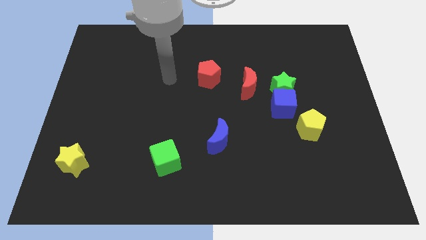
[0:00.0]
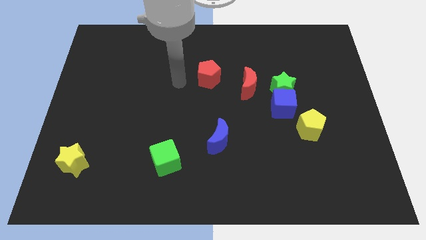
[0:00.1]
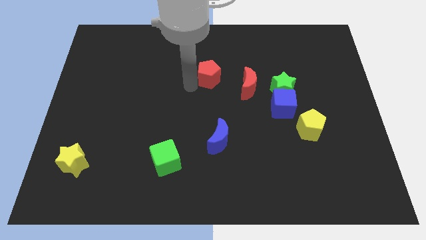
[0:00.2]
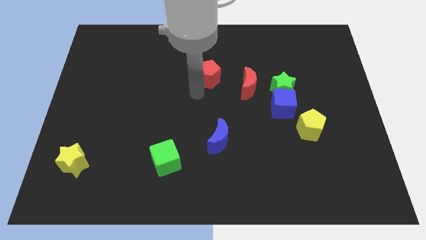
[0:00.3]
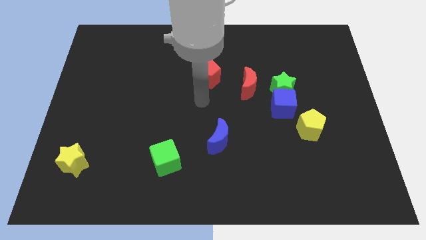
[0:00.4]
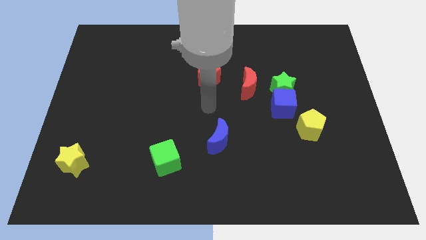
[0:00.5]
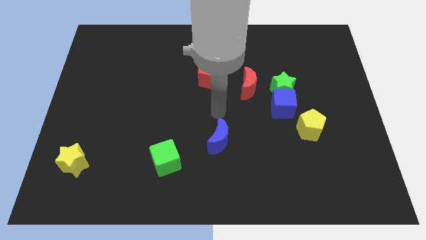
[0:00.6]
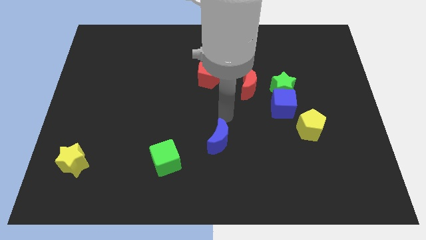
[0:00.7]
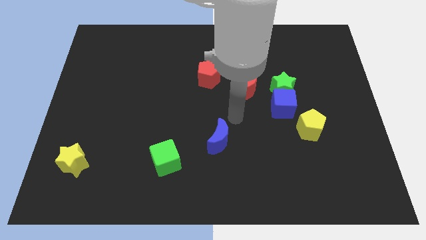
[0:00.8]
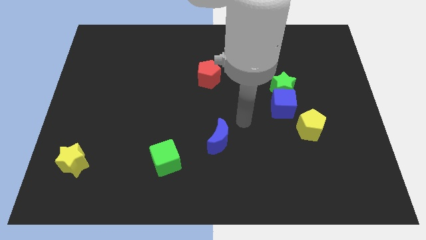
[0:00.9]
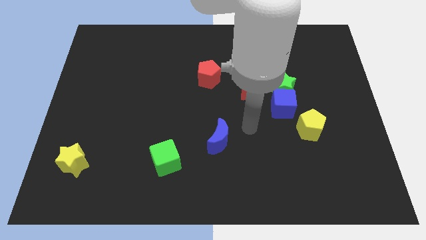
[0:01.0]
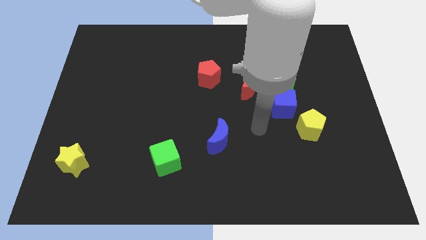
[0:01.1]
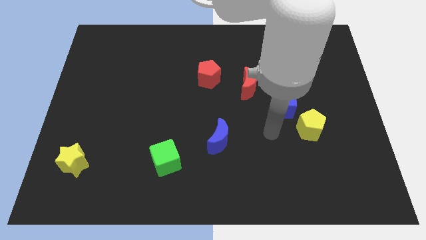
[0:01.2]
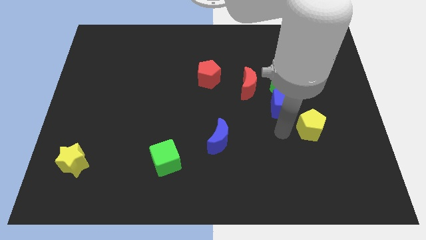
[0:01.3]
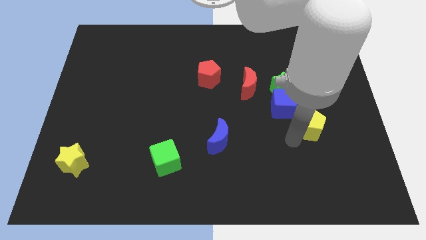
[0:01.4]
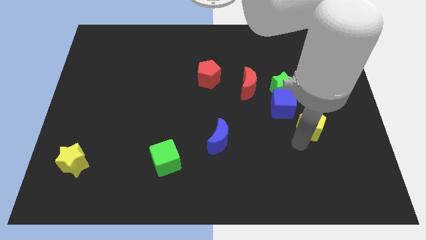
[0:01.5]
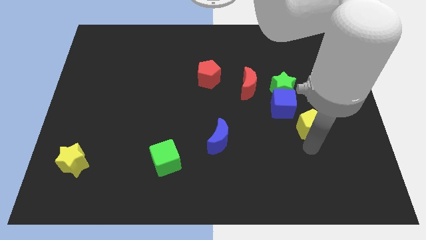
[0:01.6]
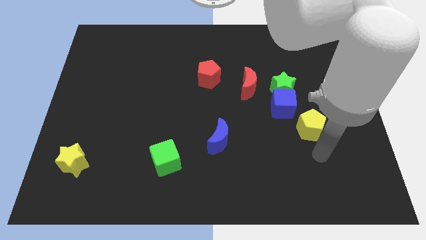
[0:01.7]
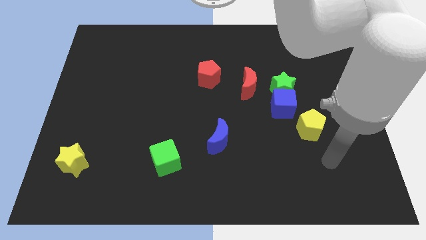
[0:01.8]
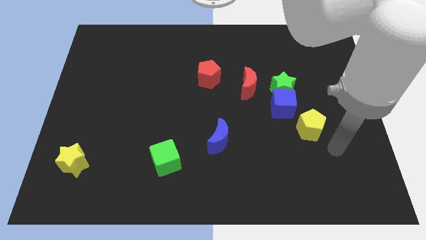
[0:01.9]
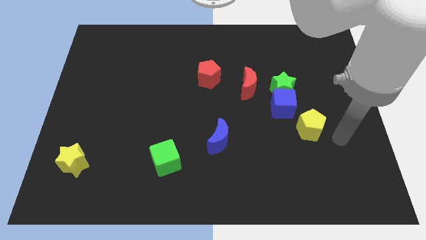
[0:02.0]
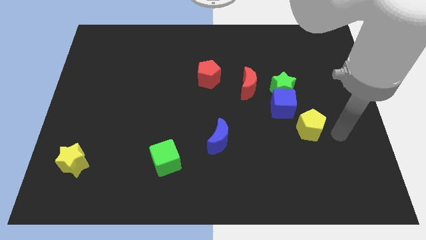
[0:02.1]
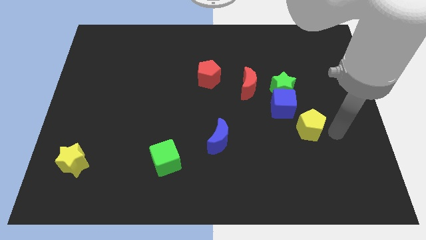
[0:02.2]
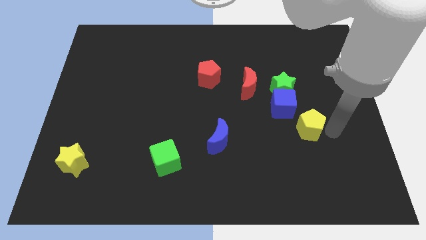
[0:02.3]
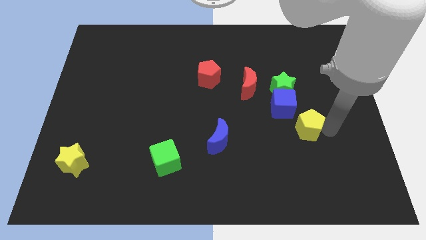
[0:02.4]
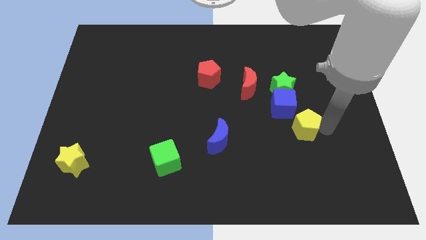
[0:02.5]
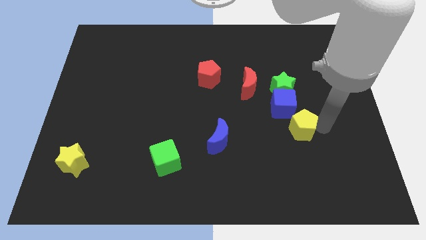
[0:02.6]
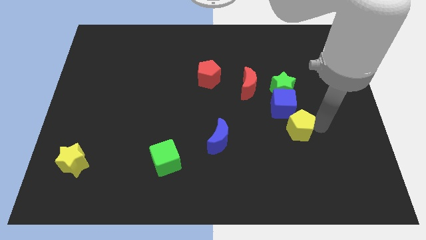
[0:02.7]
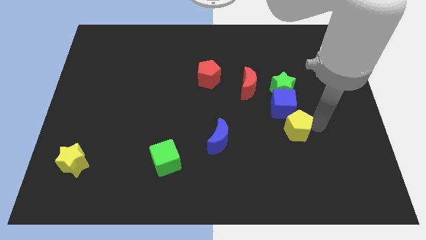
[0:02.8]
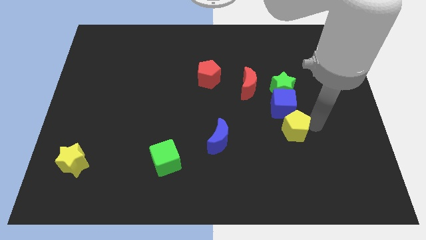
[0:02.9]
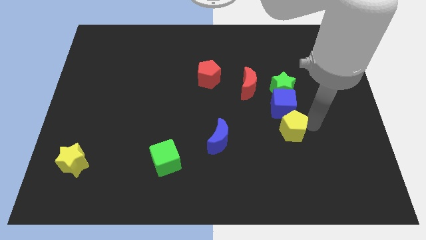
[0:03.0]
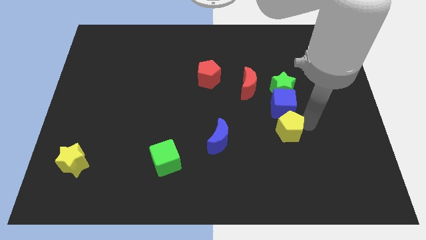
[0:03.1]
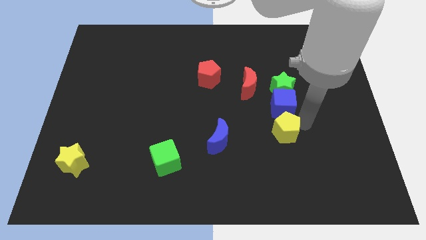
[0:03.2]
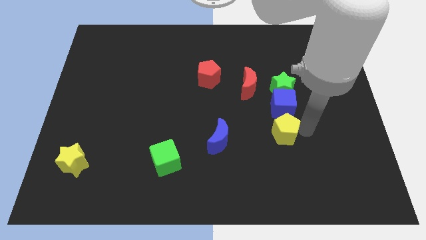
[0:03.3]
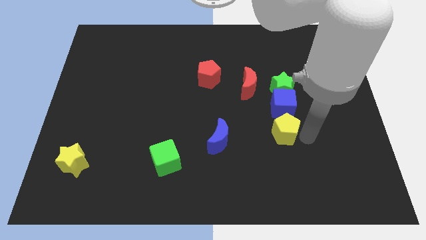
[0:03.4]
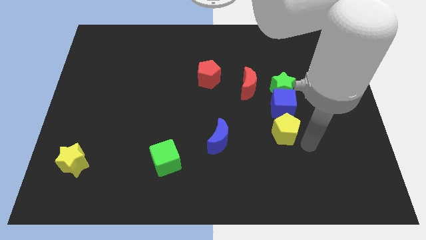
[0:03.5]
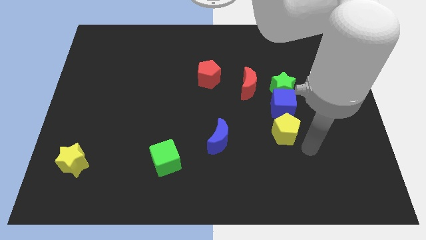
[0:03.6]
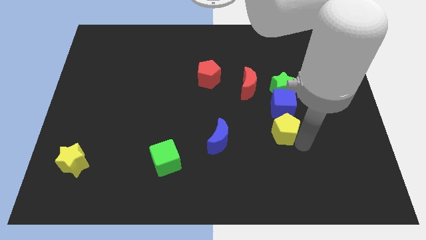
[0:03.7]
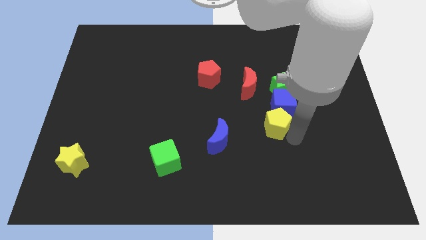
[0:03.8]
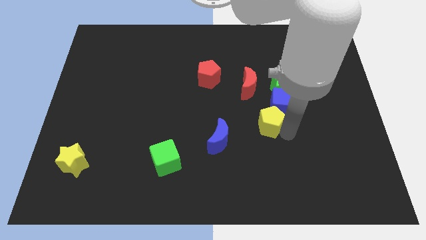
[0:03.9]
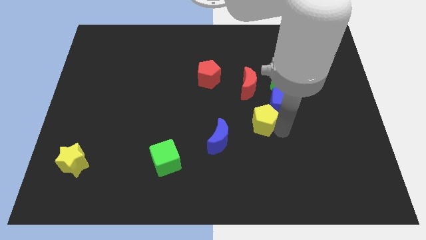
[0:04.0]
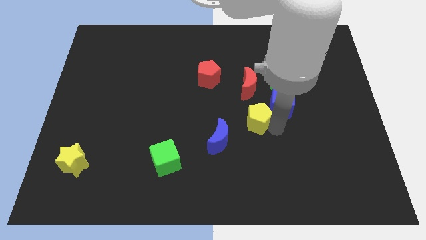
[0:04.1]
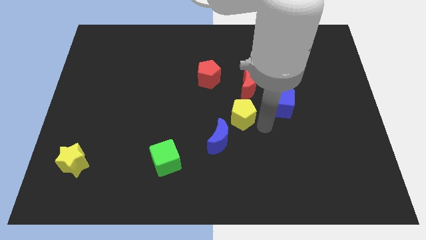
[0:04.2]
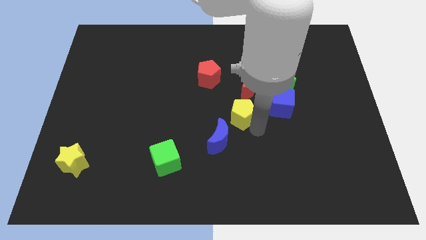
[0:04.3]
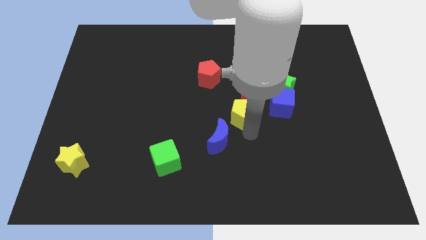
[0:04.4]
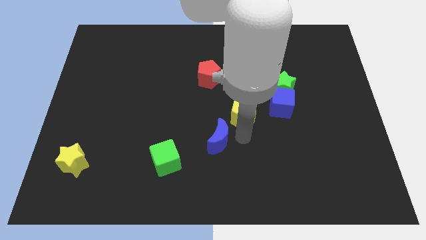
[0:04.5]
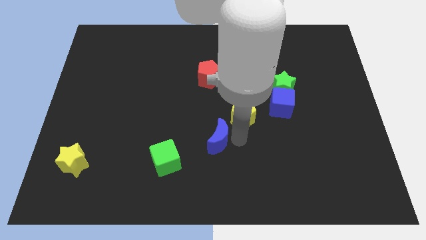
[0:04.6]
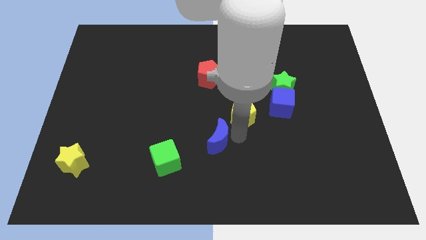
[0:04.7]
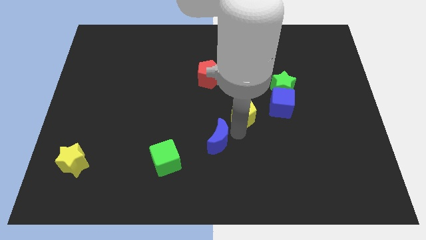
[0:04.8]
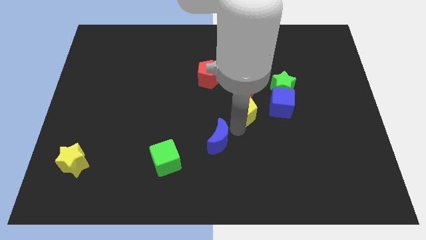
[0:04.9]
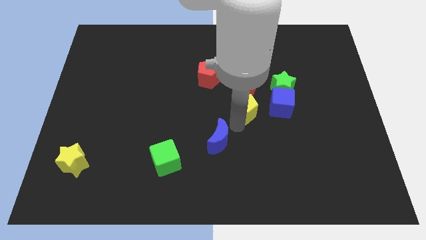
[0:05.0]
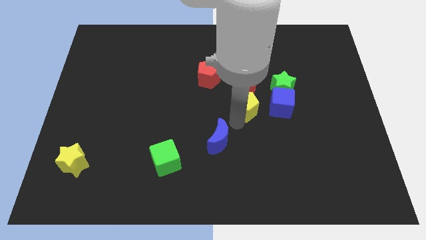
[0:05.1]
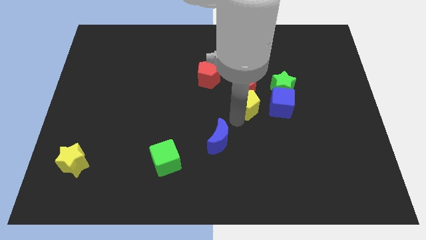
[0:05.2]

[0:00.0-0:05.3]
move the yellow pentagon towards the red moon
